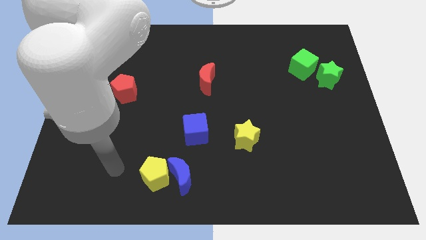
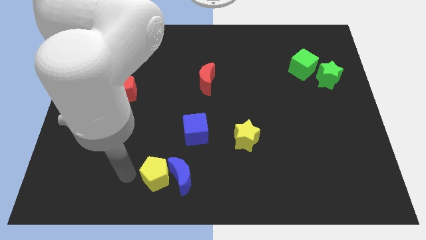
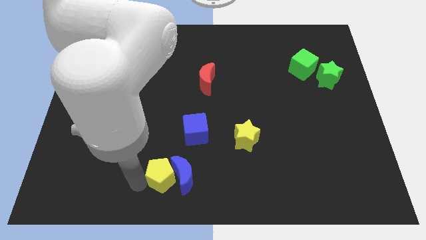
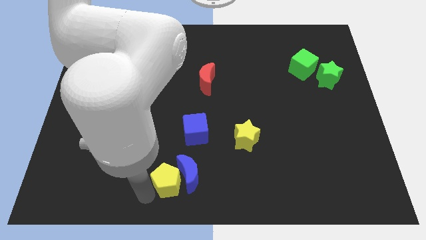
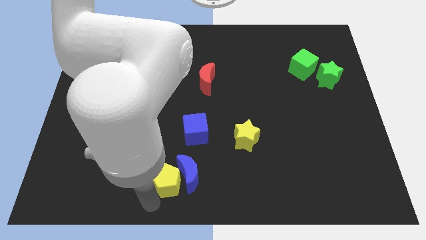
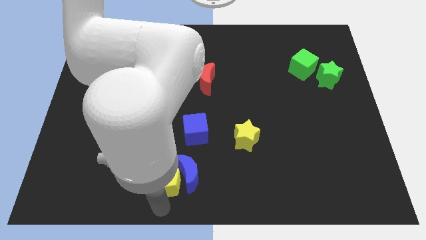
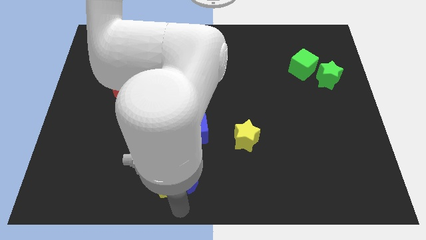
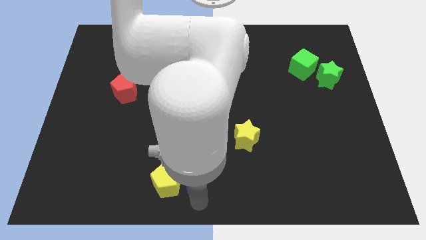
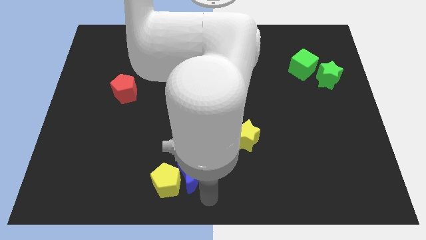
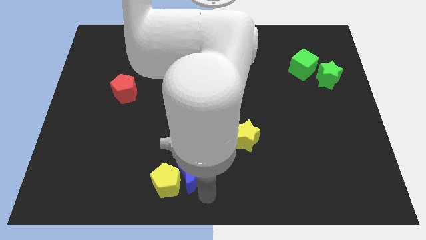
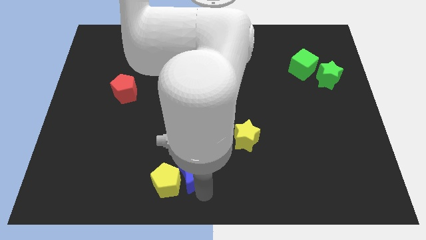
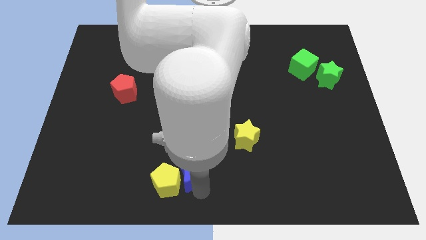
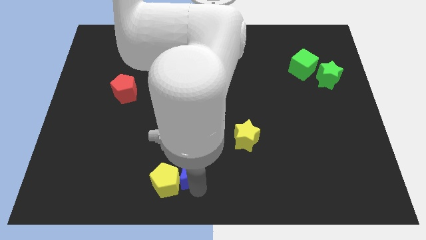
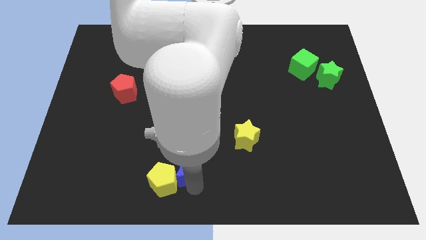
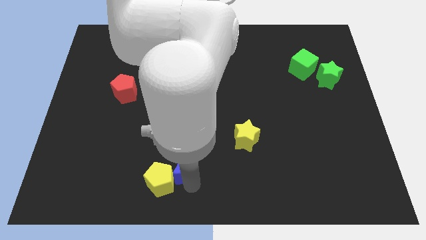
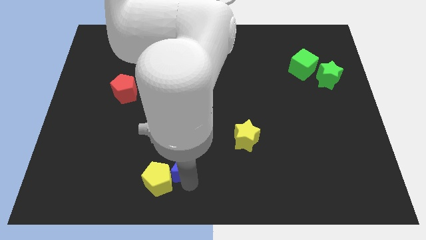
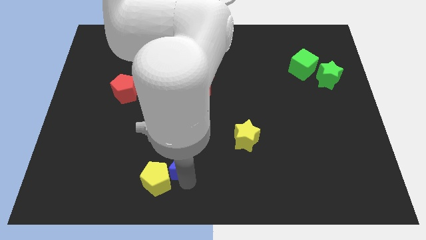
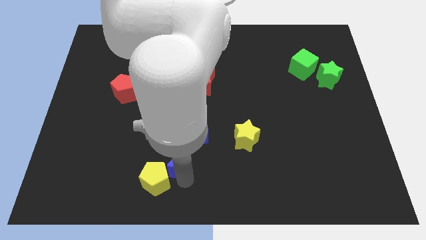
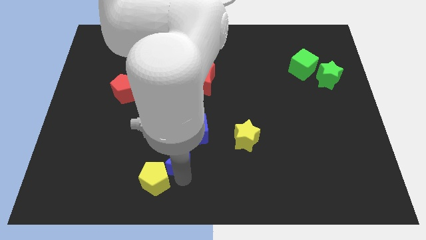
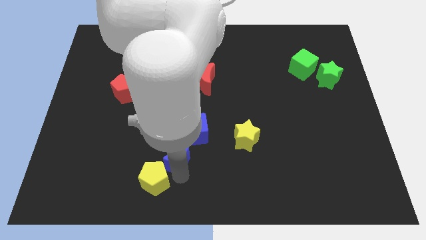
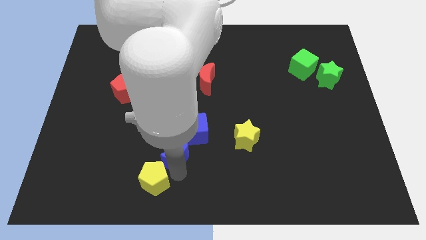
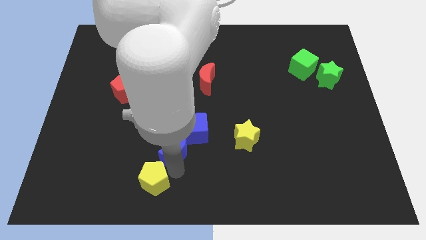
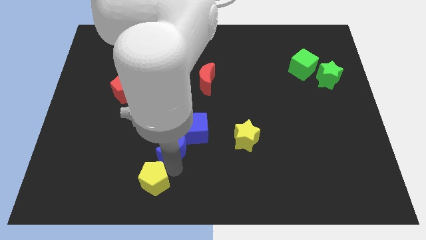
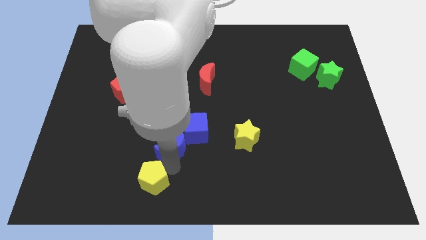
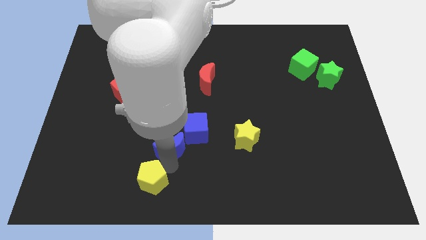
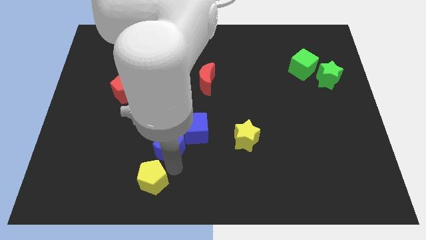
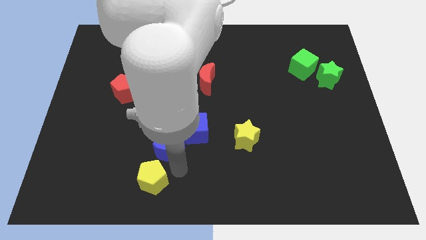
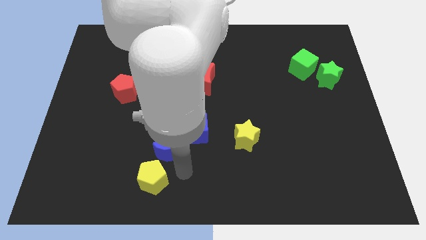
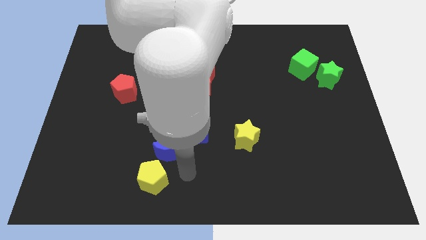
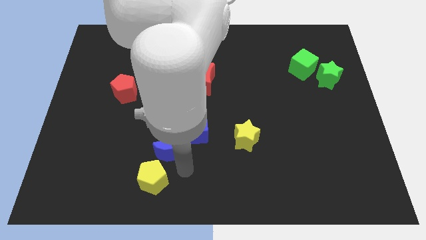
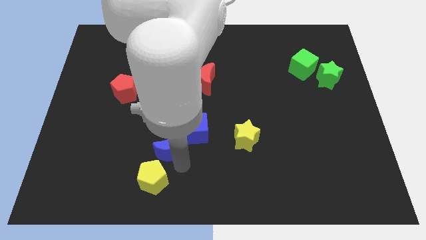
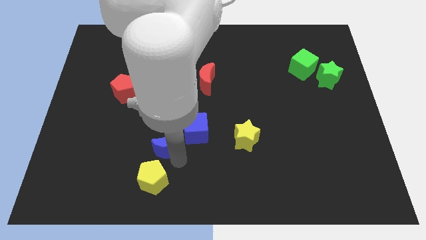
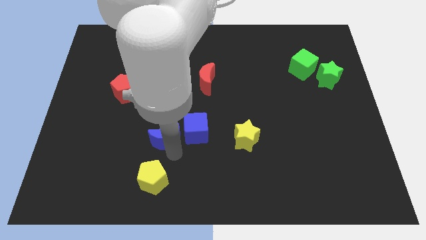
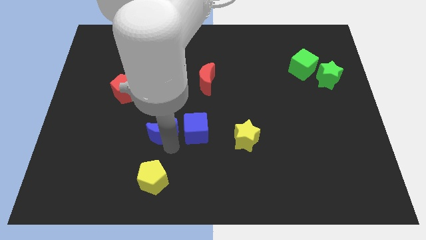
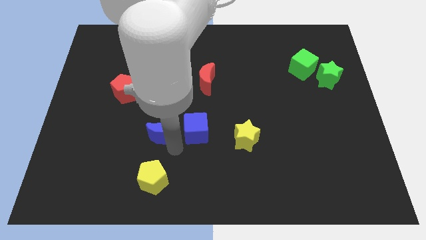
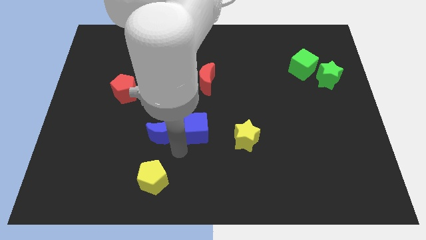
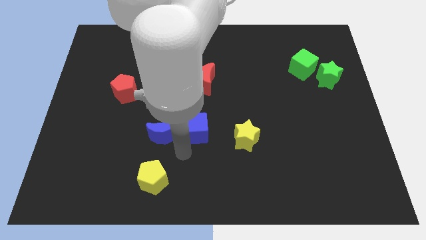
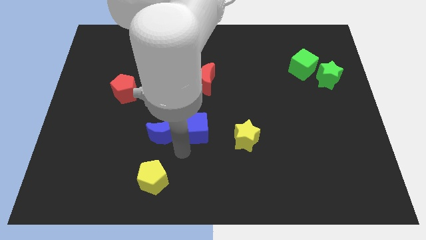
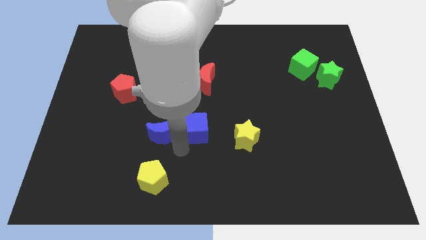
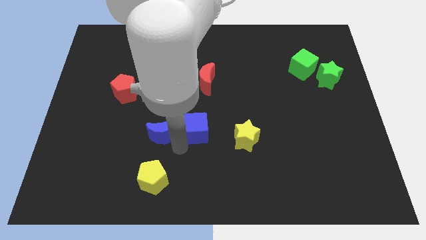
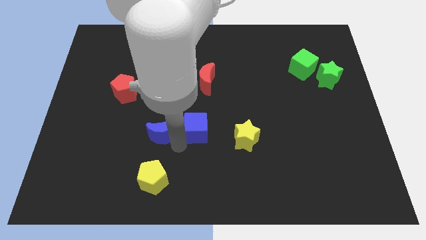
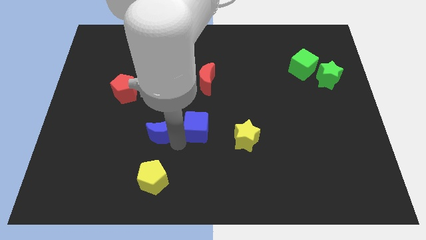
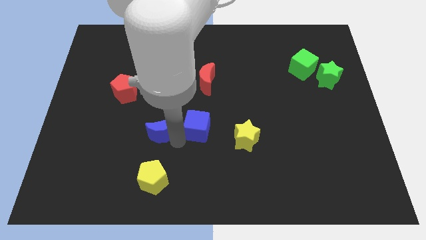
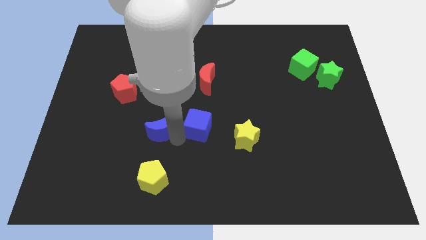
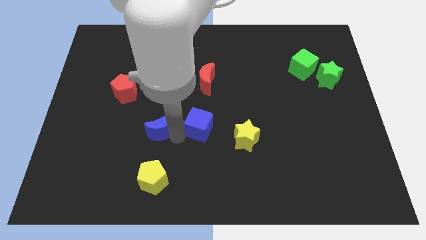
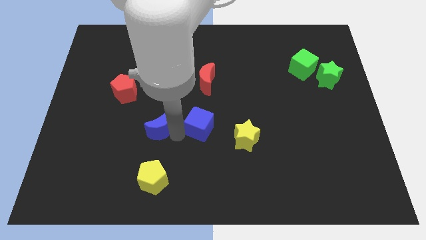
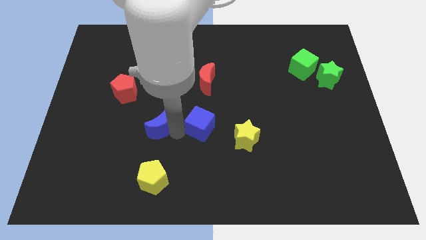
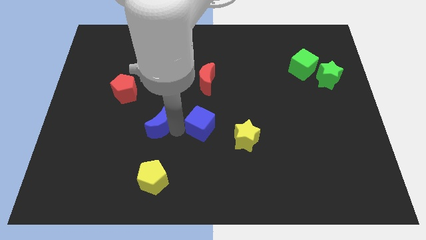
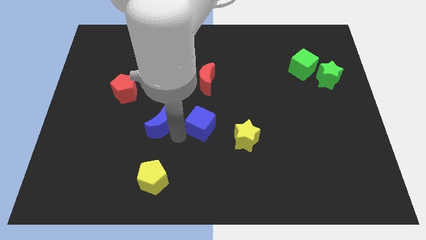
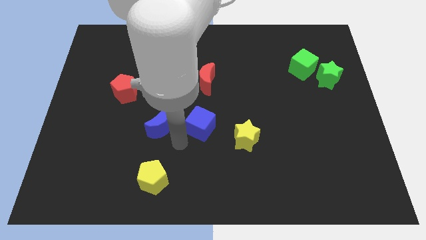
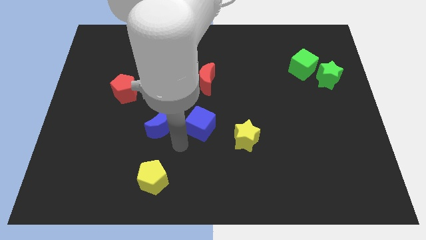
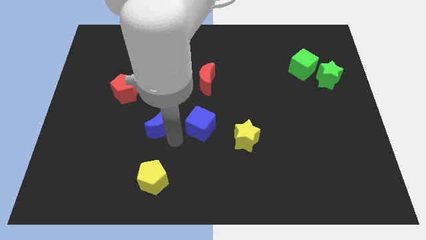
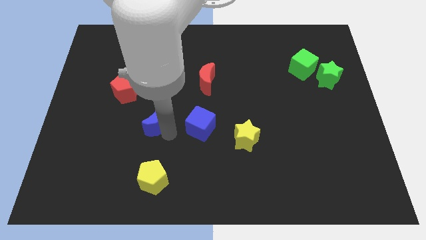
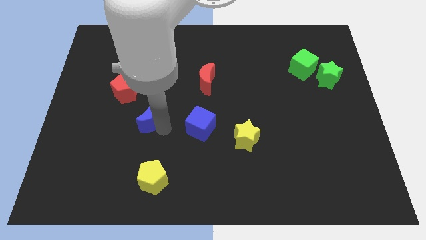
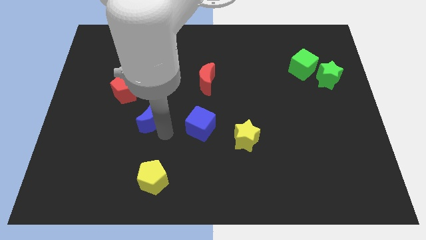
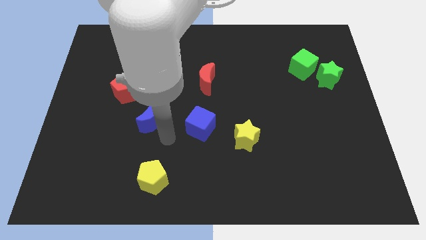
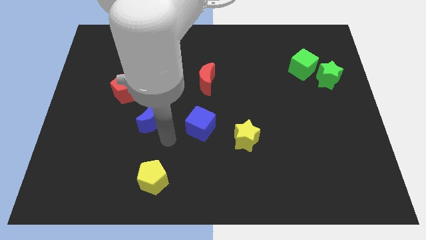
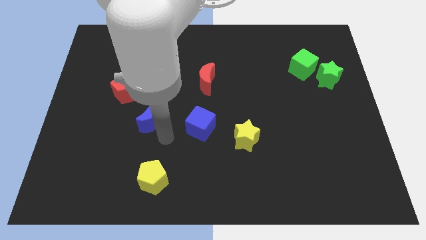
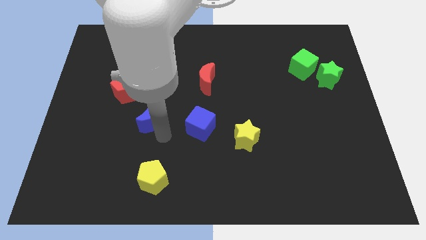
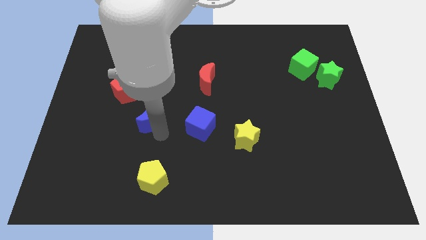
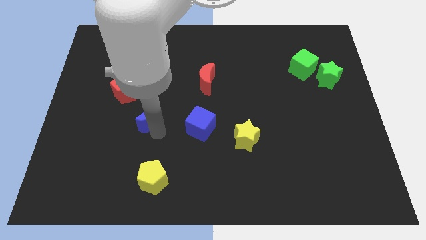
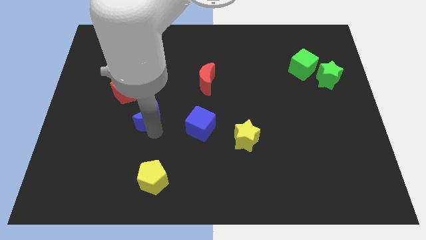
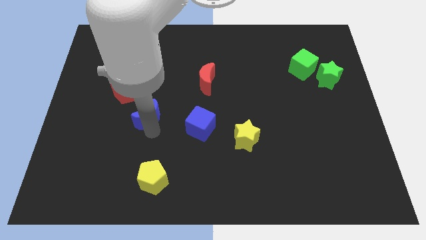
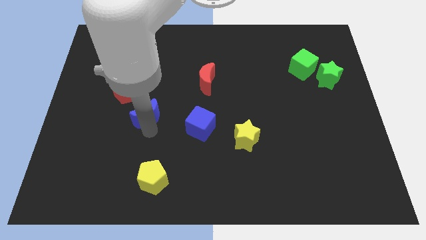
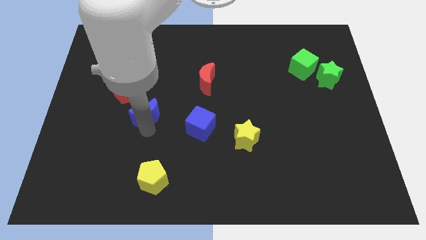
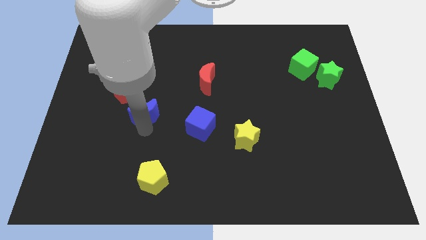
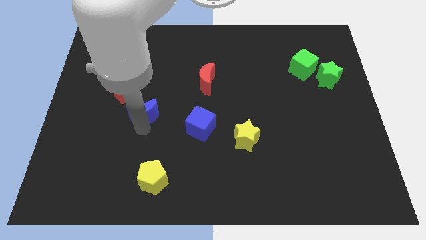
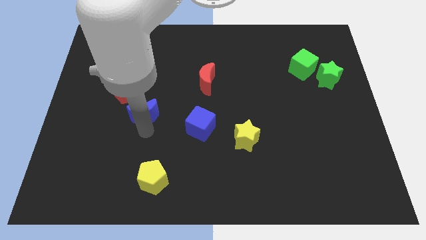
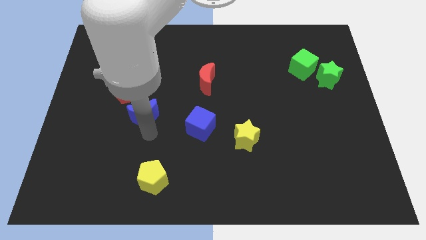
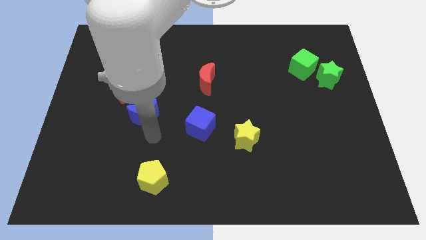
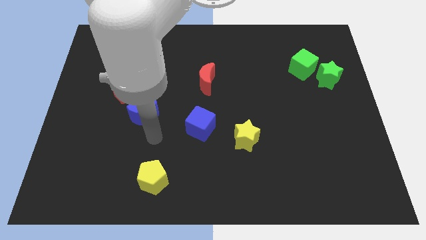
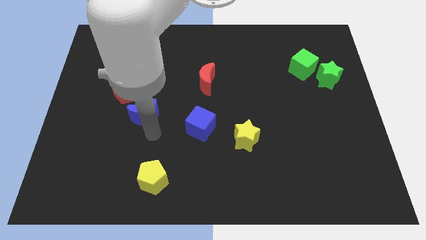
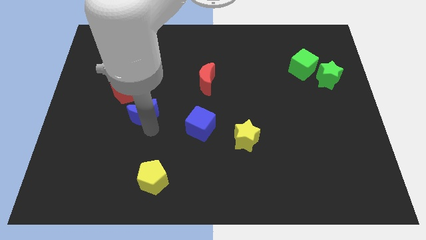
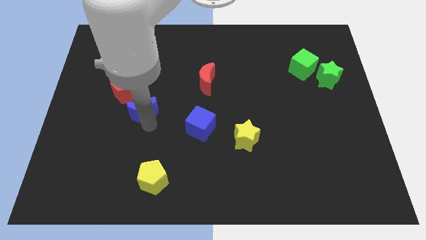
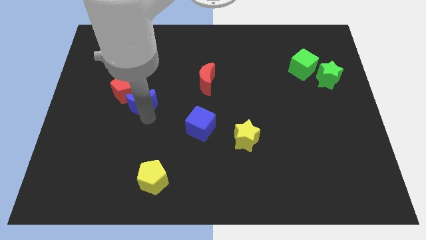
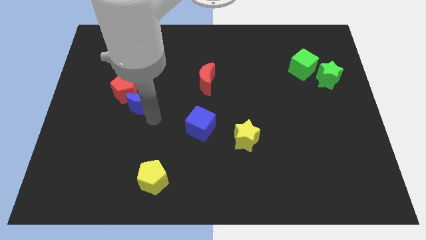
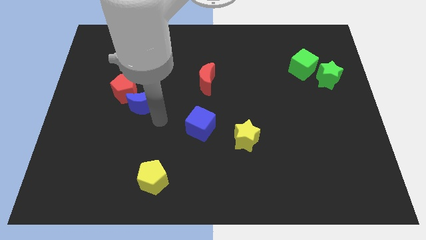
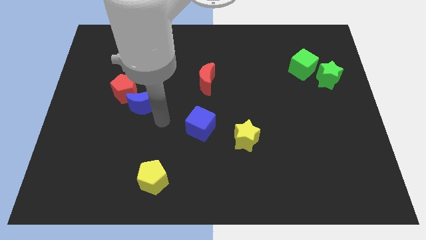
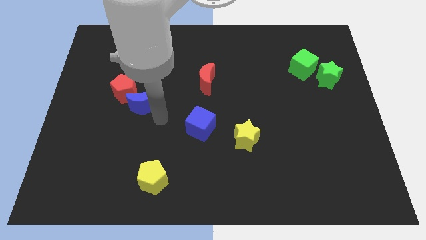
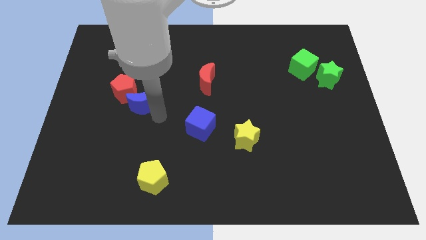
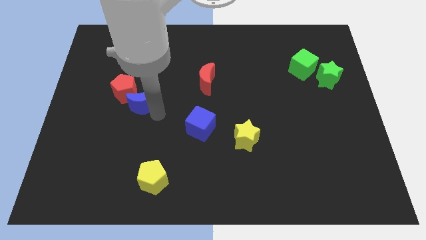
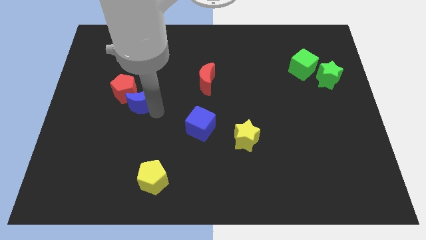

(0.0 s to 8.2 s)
put the blue moon next to the red pentagon
